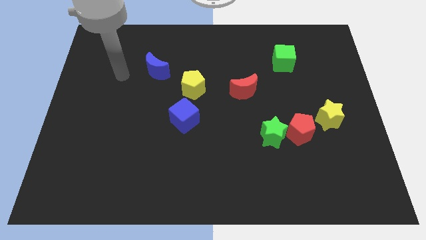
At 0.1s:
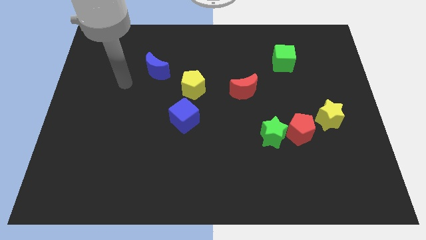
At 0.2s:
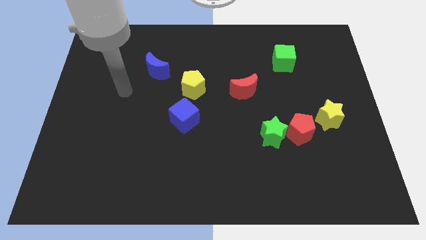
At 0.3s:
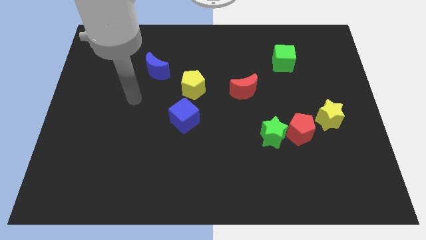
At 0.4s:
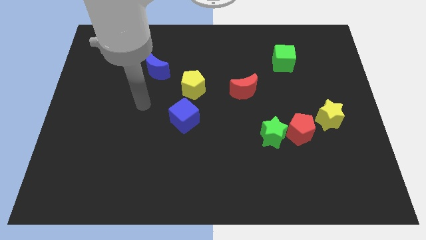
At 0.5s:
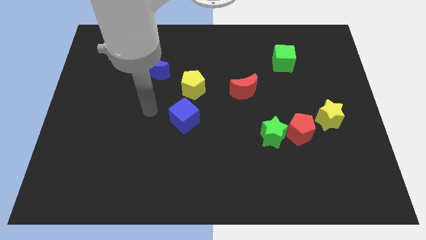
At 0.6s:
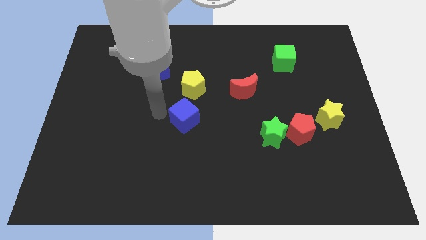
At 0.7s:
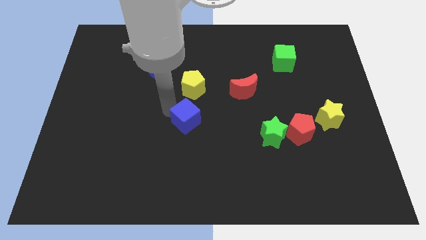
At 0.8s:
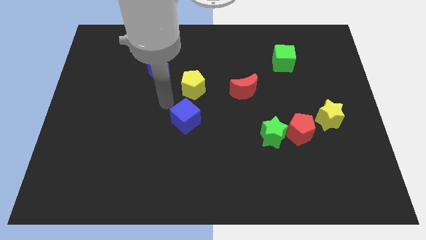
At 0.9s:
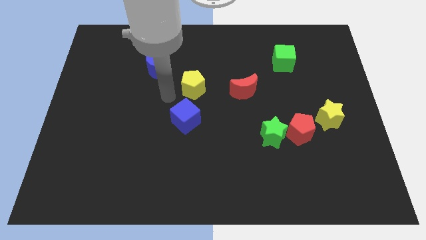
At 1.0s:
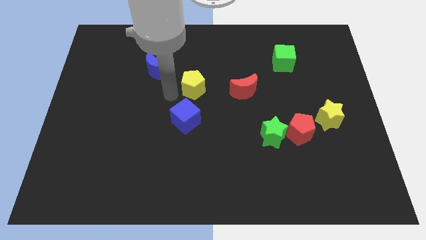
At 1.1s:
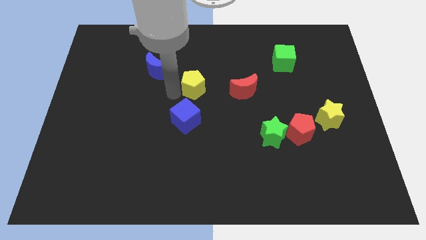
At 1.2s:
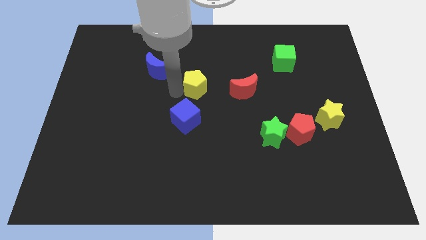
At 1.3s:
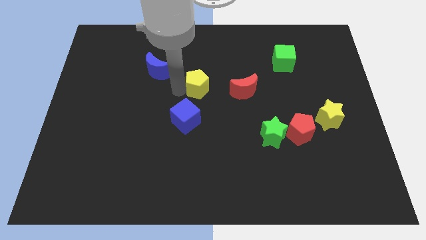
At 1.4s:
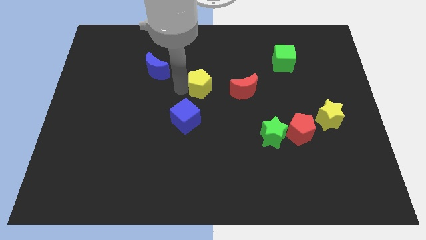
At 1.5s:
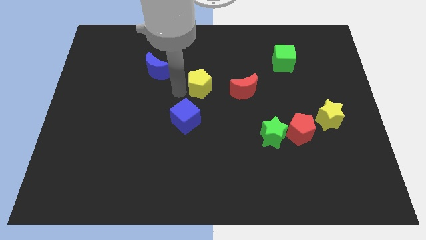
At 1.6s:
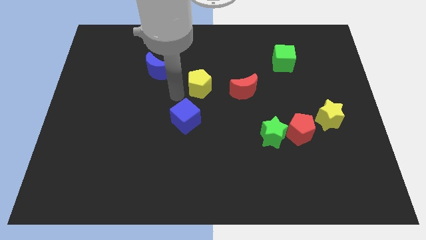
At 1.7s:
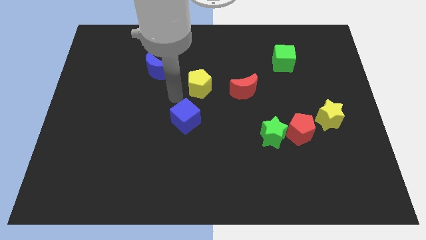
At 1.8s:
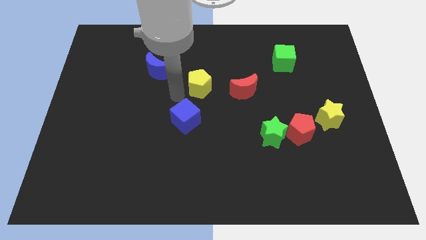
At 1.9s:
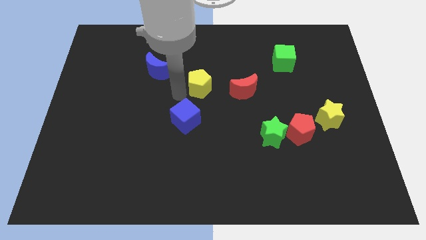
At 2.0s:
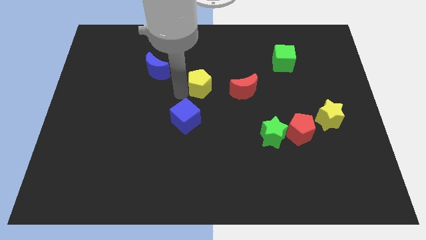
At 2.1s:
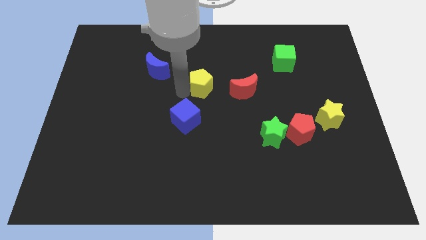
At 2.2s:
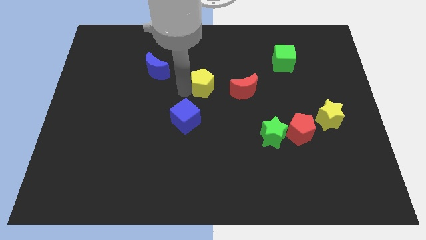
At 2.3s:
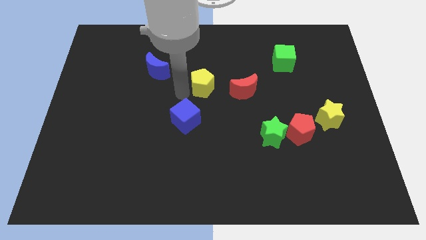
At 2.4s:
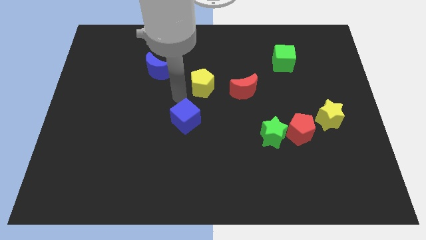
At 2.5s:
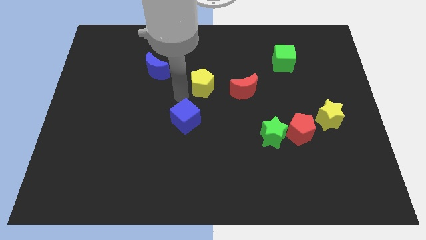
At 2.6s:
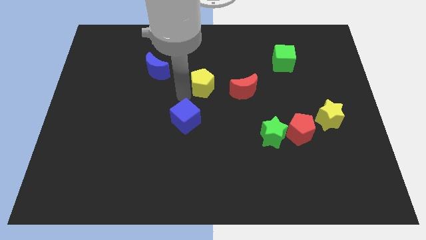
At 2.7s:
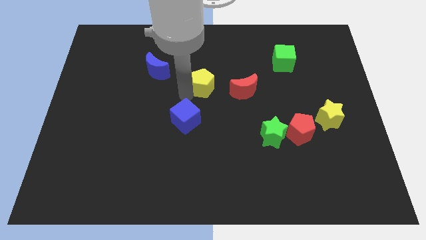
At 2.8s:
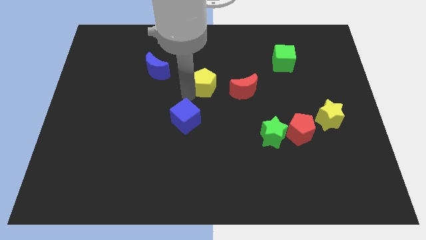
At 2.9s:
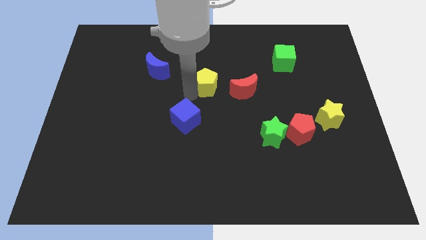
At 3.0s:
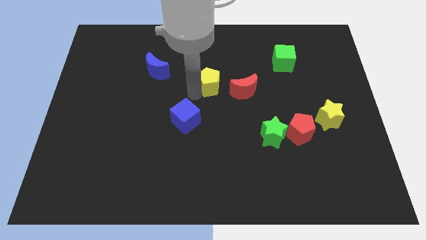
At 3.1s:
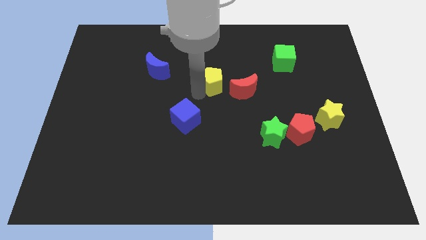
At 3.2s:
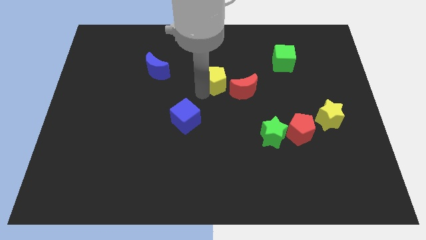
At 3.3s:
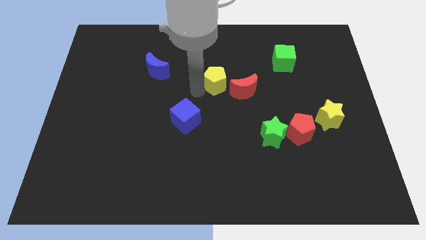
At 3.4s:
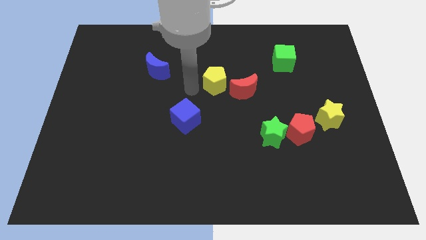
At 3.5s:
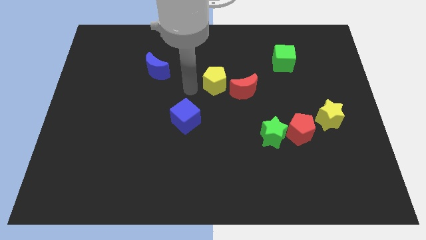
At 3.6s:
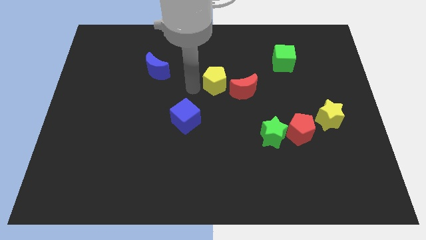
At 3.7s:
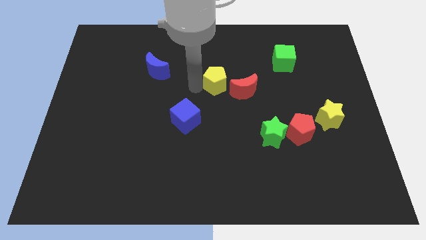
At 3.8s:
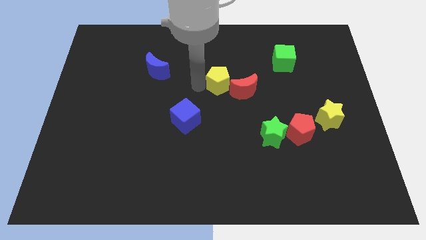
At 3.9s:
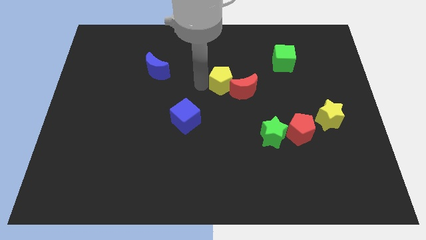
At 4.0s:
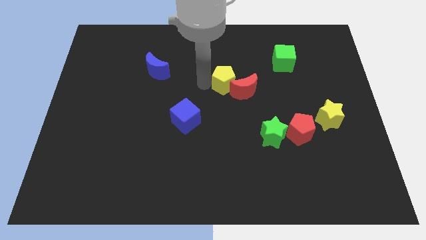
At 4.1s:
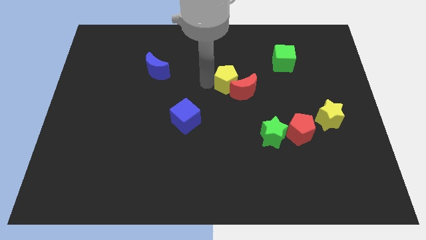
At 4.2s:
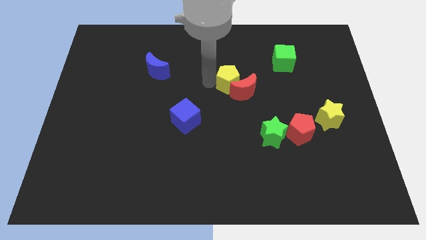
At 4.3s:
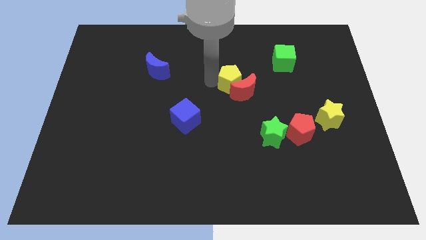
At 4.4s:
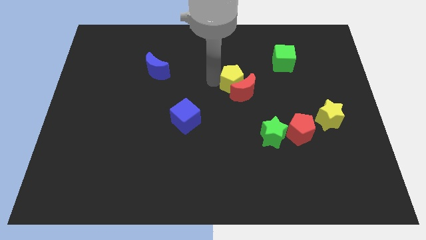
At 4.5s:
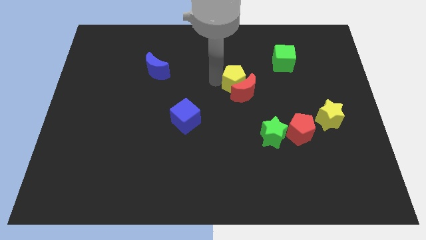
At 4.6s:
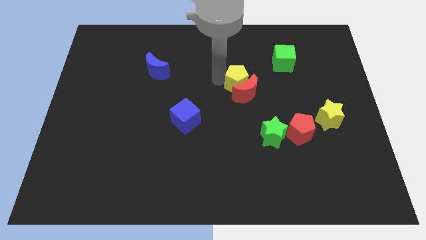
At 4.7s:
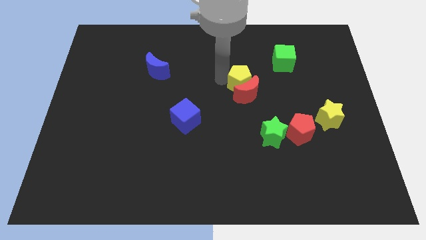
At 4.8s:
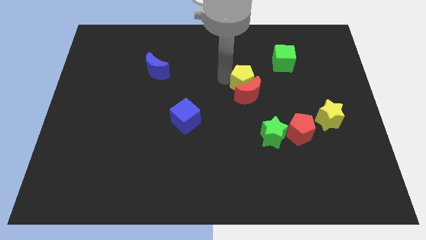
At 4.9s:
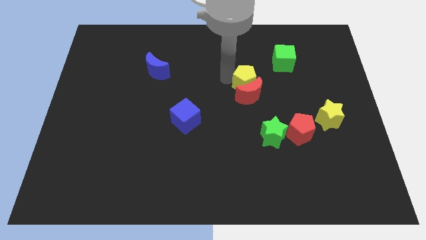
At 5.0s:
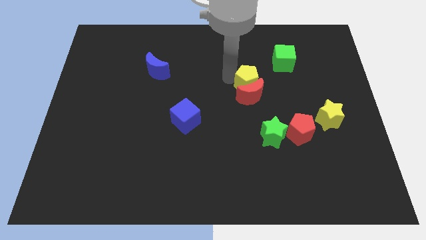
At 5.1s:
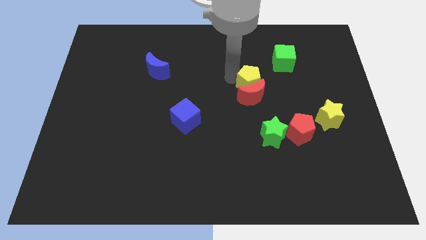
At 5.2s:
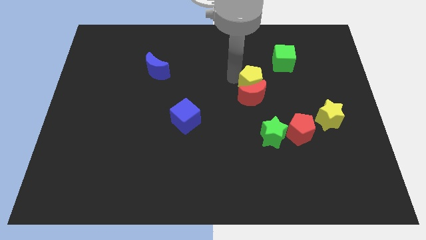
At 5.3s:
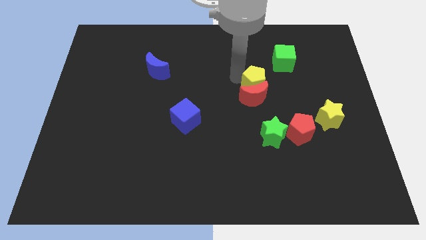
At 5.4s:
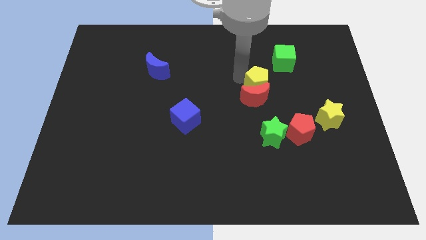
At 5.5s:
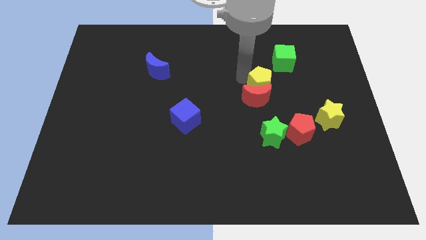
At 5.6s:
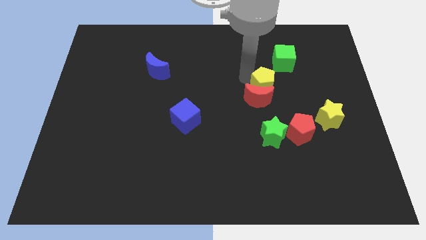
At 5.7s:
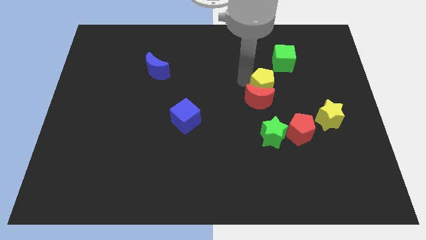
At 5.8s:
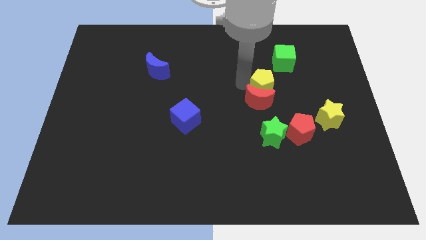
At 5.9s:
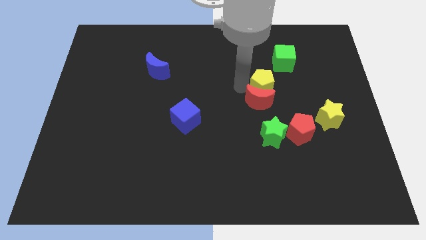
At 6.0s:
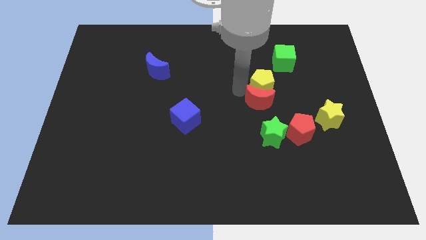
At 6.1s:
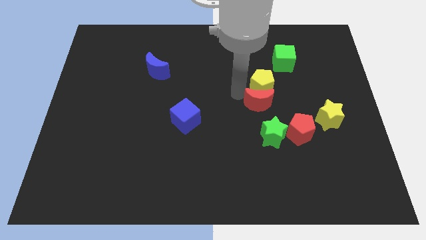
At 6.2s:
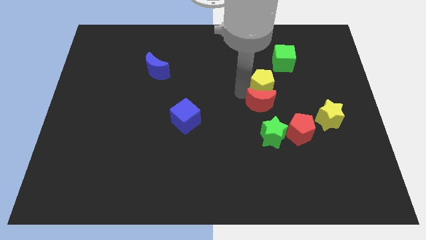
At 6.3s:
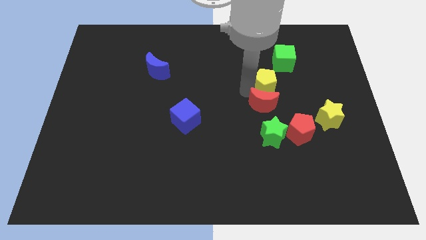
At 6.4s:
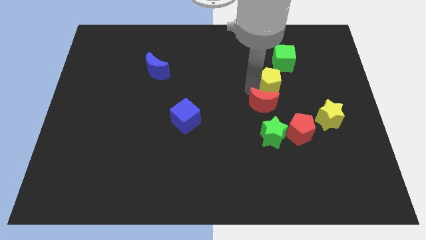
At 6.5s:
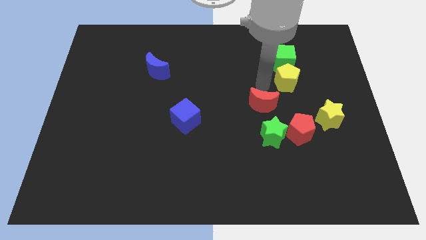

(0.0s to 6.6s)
push the yellow pentagon to the right

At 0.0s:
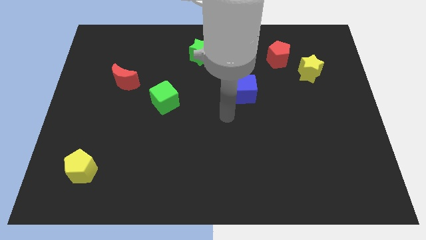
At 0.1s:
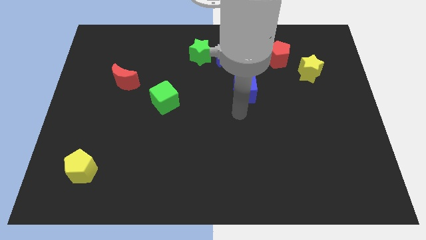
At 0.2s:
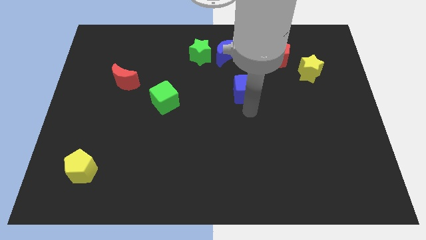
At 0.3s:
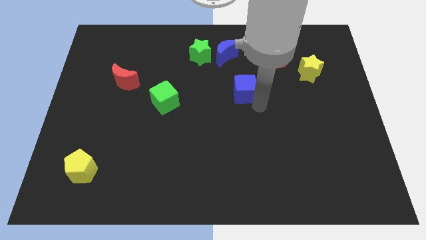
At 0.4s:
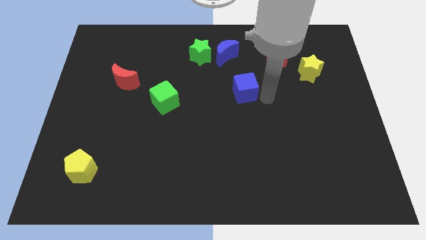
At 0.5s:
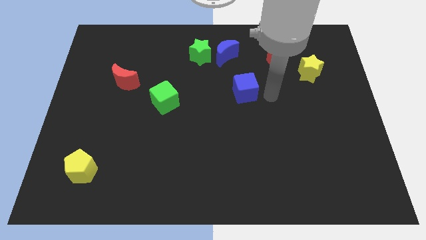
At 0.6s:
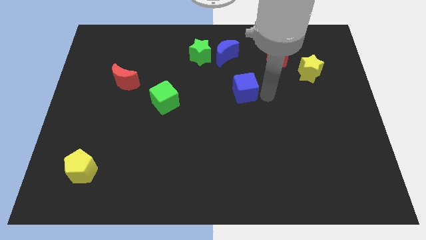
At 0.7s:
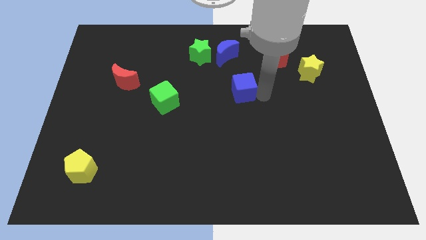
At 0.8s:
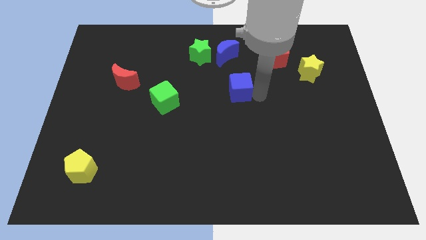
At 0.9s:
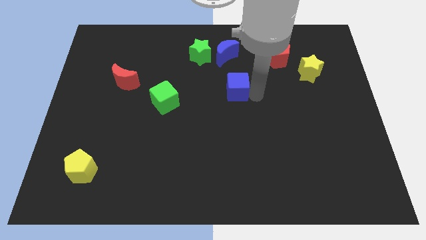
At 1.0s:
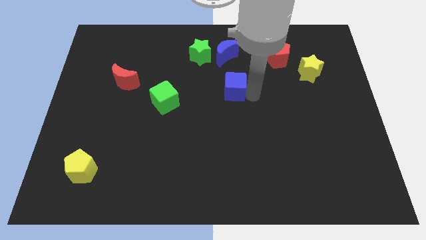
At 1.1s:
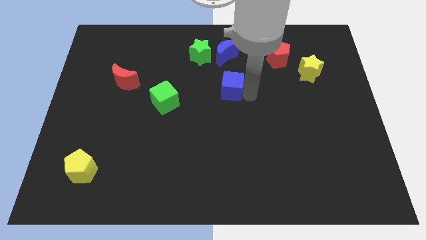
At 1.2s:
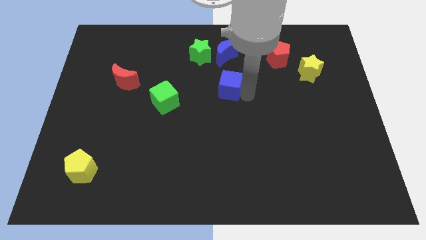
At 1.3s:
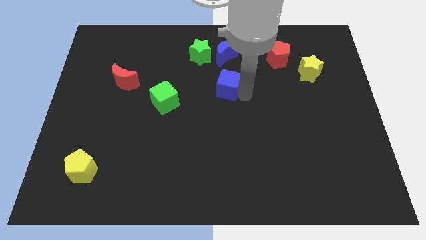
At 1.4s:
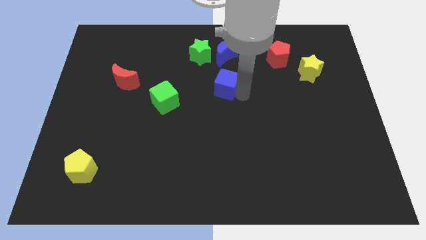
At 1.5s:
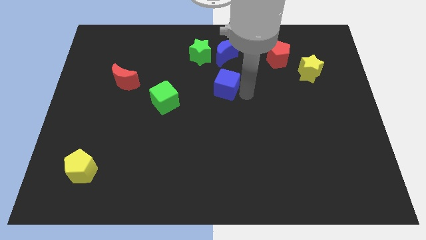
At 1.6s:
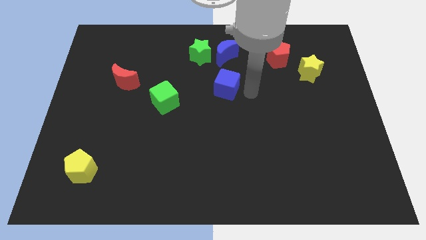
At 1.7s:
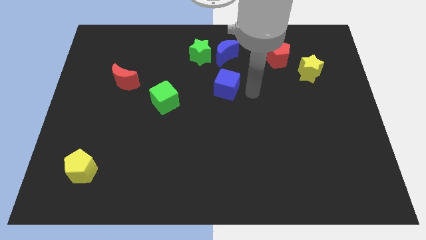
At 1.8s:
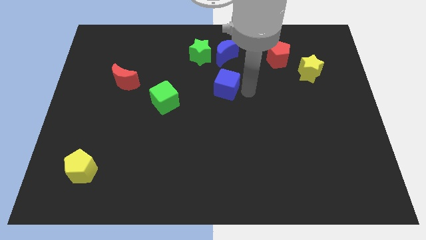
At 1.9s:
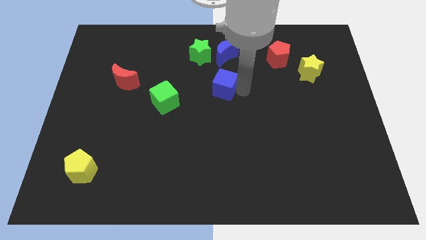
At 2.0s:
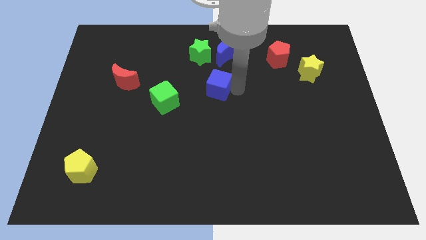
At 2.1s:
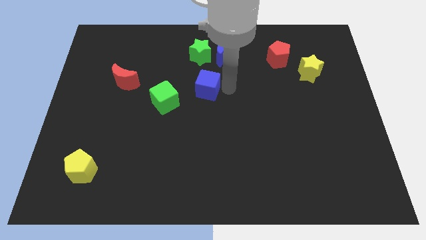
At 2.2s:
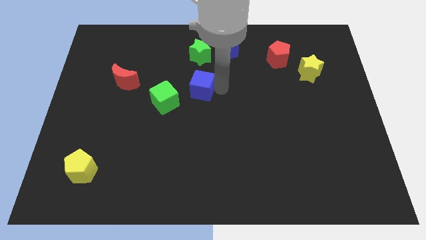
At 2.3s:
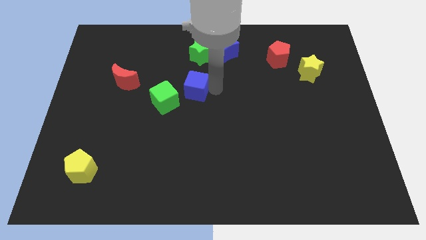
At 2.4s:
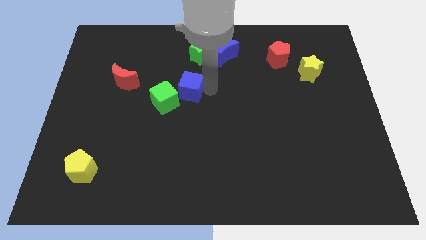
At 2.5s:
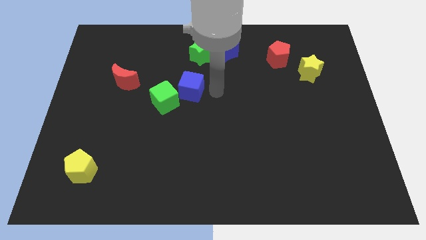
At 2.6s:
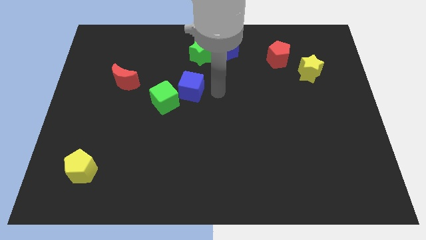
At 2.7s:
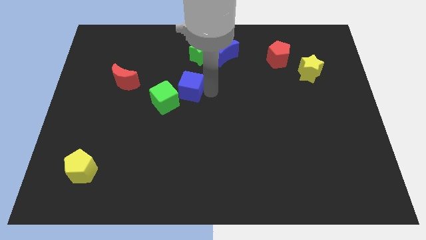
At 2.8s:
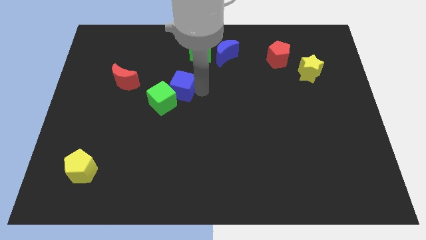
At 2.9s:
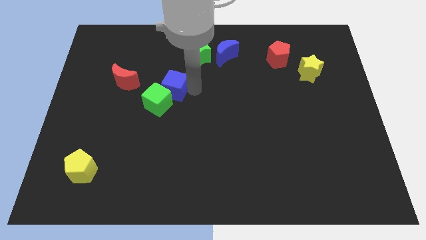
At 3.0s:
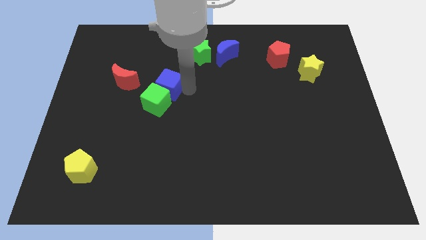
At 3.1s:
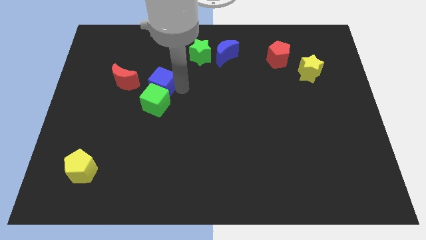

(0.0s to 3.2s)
move the blue cube to the left
